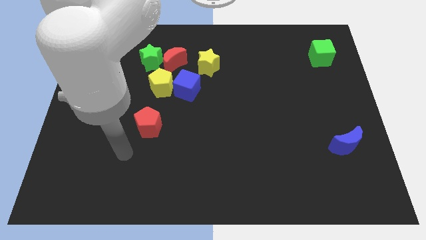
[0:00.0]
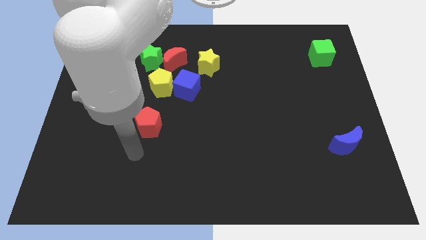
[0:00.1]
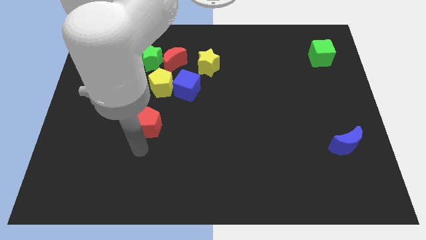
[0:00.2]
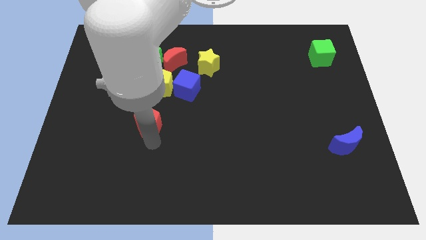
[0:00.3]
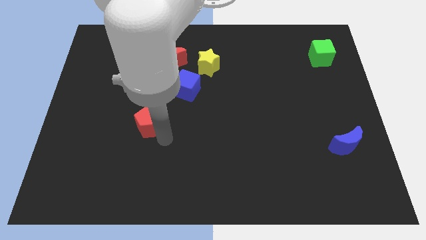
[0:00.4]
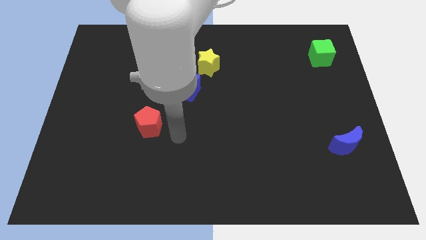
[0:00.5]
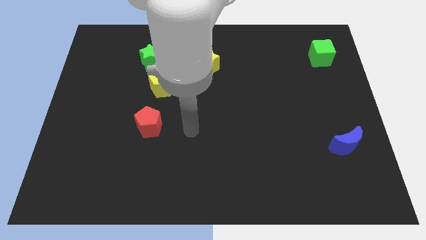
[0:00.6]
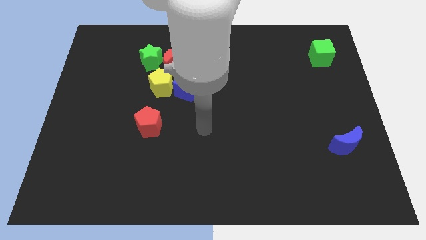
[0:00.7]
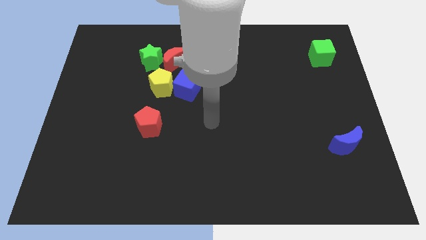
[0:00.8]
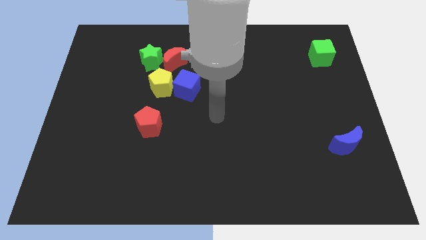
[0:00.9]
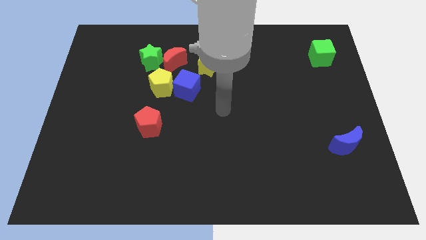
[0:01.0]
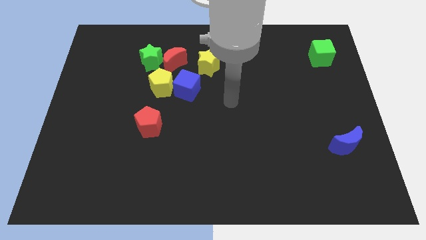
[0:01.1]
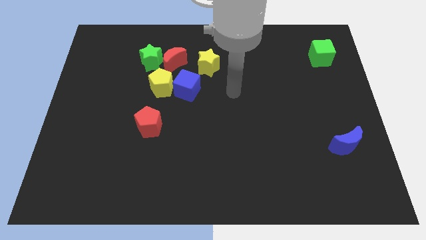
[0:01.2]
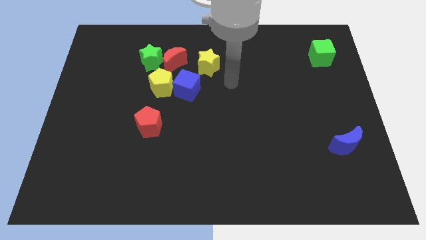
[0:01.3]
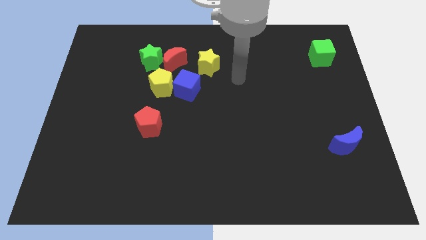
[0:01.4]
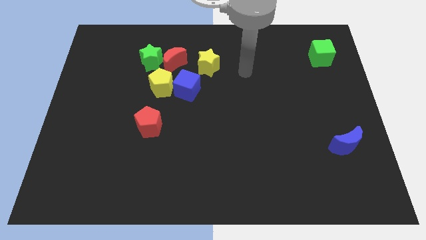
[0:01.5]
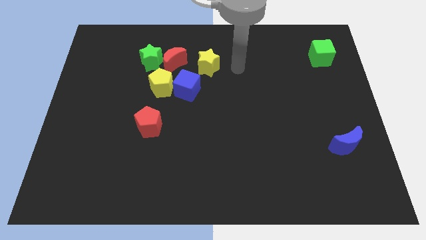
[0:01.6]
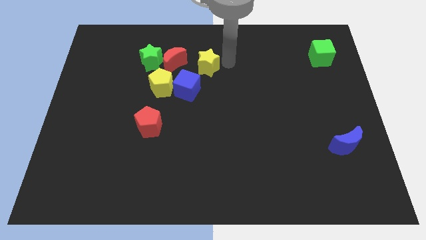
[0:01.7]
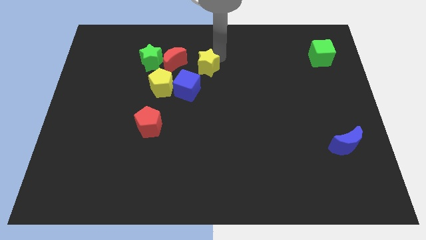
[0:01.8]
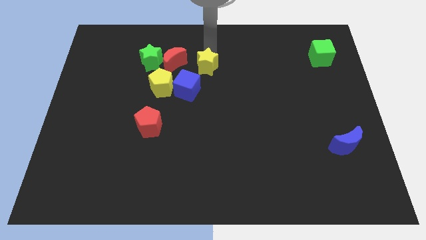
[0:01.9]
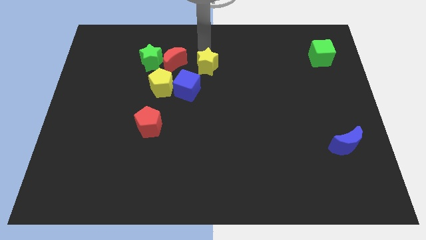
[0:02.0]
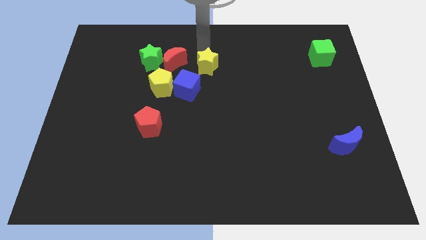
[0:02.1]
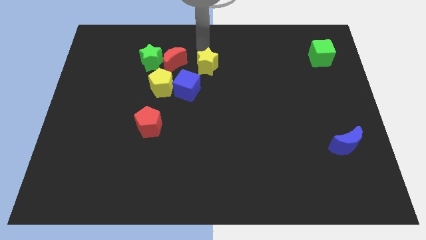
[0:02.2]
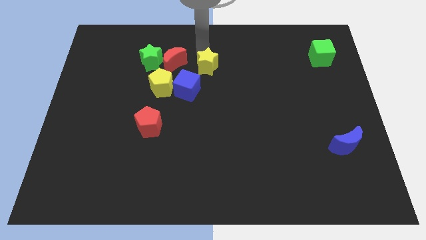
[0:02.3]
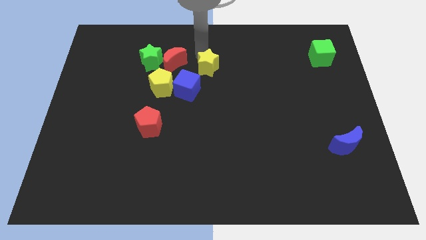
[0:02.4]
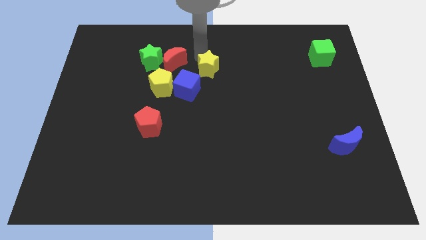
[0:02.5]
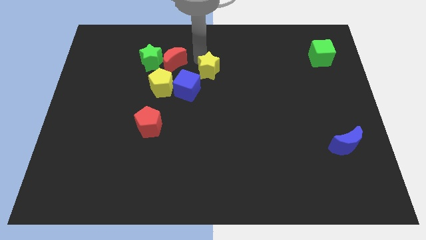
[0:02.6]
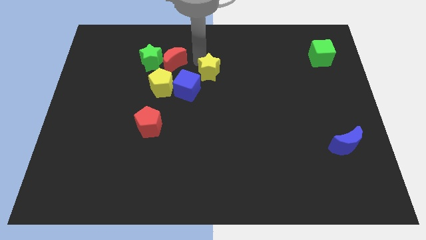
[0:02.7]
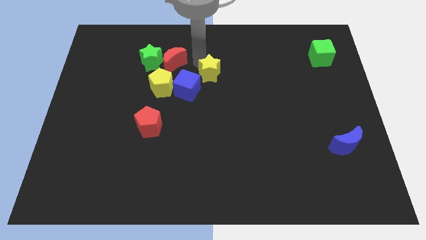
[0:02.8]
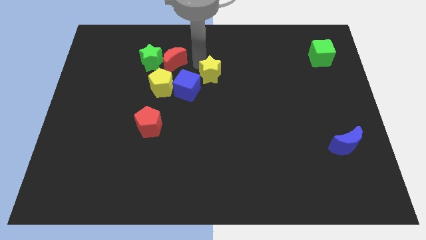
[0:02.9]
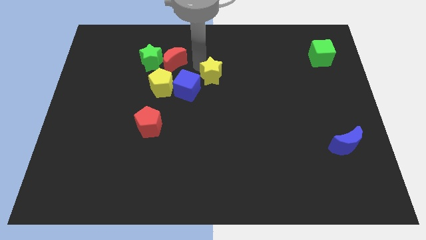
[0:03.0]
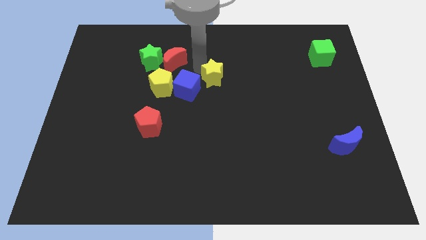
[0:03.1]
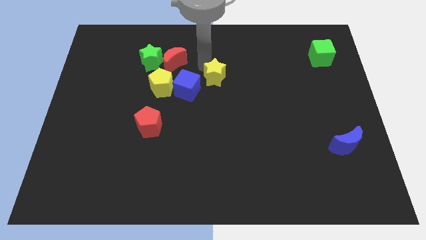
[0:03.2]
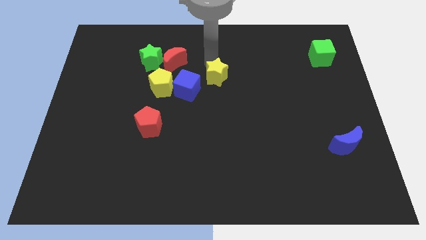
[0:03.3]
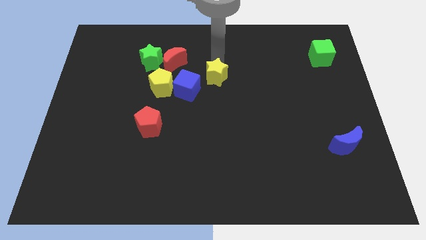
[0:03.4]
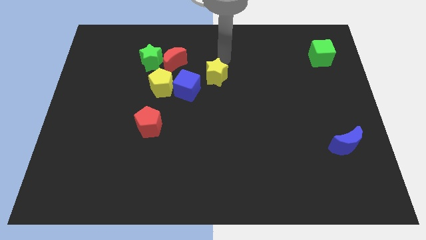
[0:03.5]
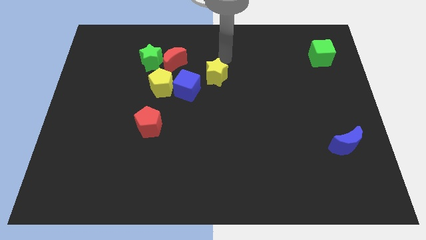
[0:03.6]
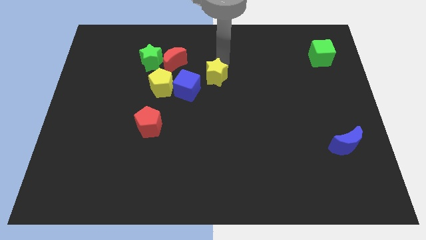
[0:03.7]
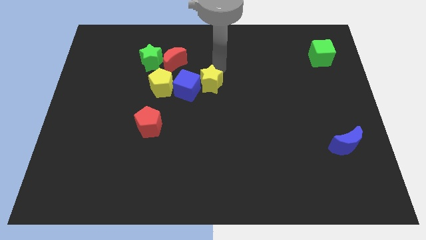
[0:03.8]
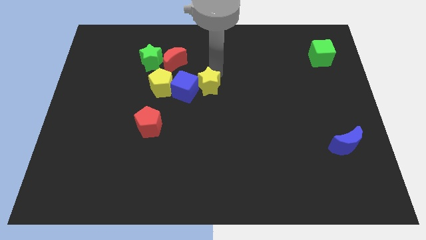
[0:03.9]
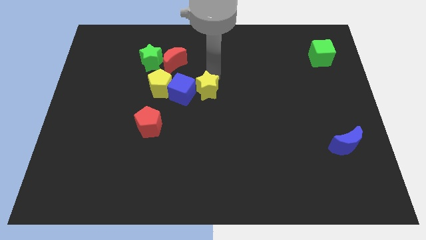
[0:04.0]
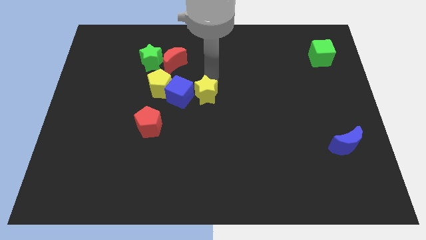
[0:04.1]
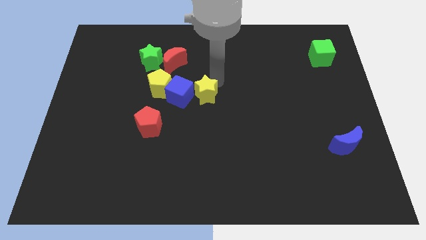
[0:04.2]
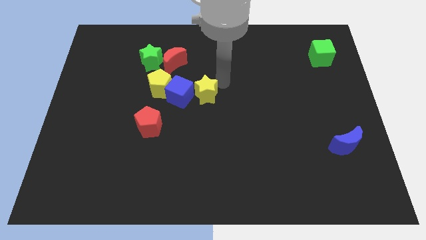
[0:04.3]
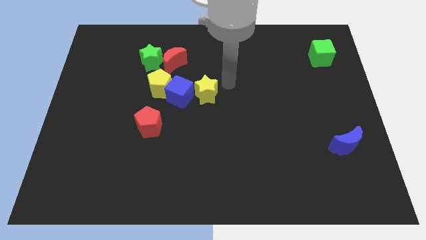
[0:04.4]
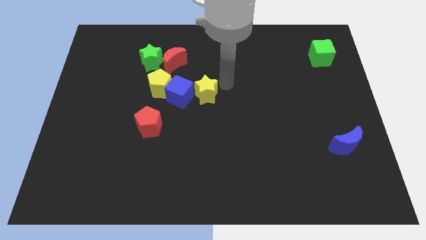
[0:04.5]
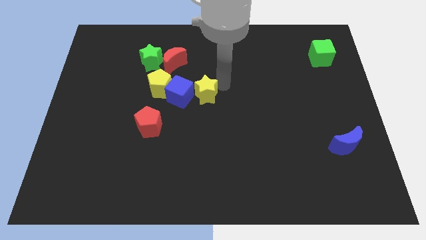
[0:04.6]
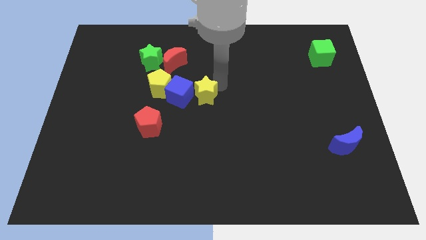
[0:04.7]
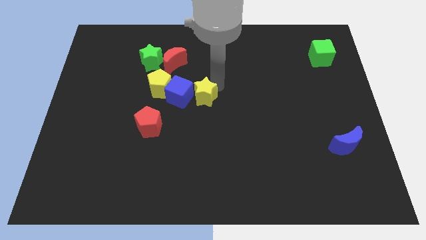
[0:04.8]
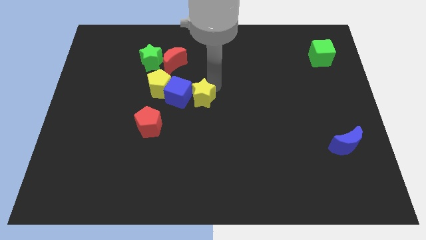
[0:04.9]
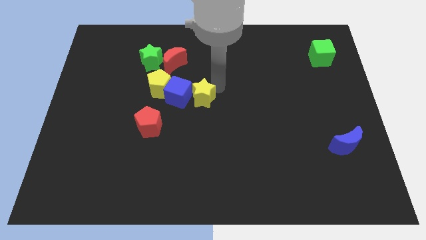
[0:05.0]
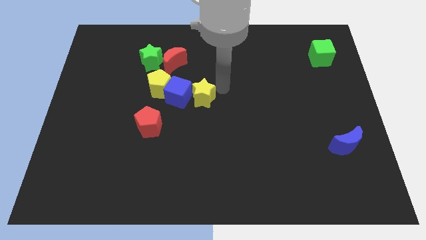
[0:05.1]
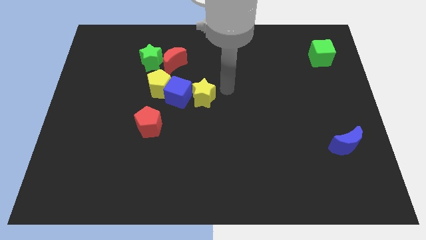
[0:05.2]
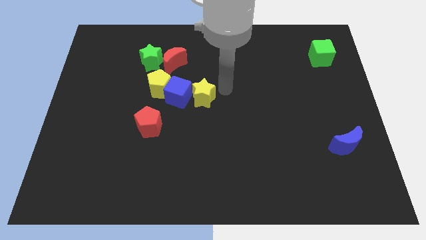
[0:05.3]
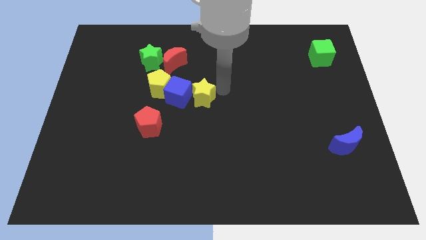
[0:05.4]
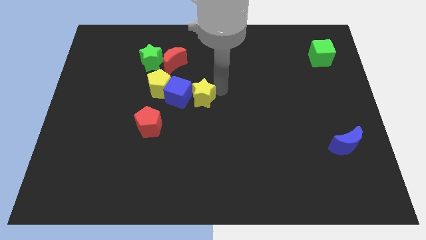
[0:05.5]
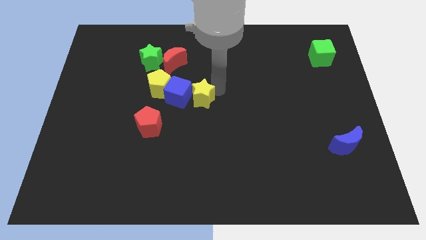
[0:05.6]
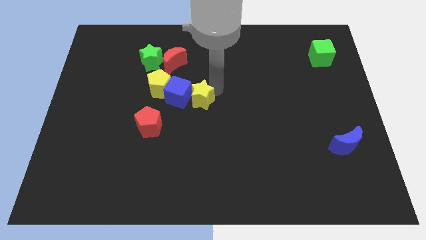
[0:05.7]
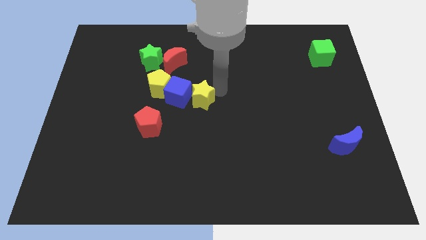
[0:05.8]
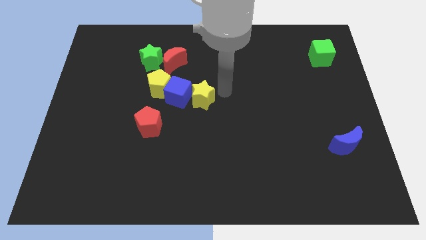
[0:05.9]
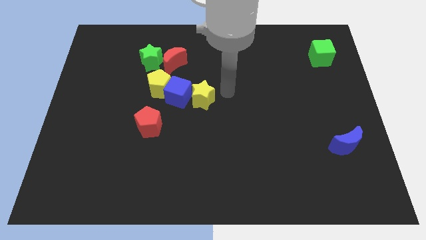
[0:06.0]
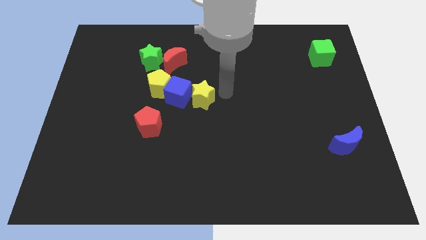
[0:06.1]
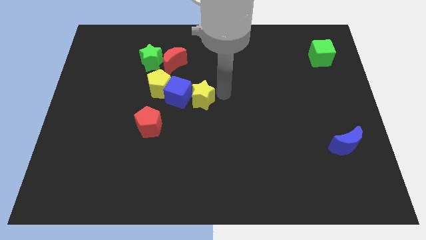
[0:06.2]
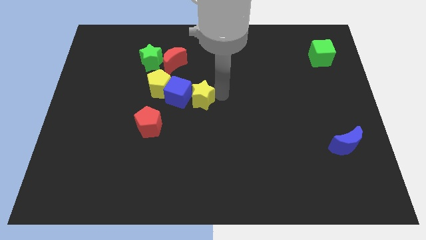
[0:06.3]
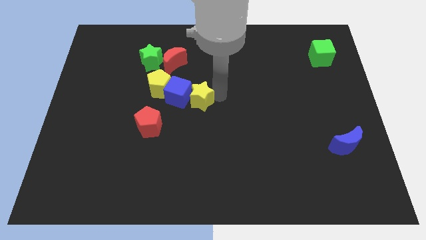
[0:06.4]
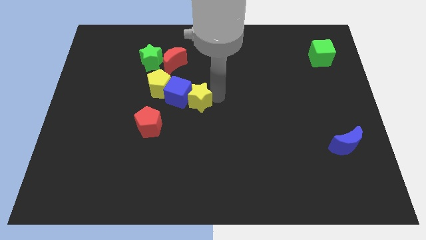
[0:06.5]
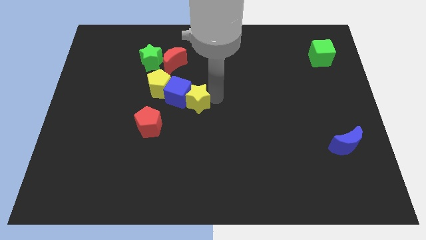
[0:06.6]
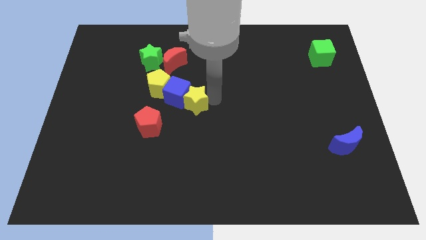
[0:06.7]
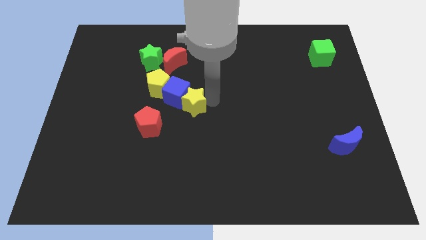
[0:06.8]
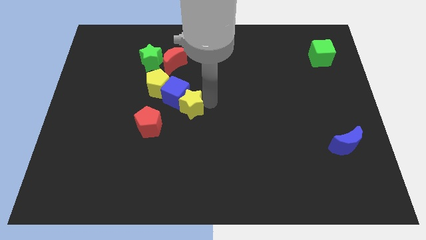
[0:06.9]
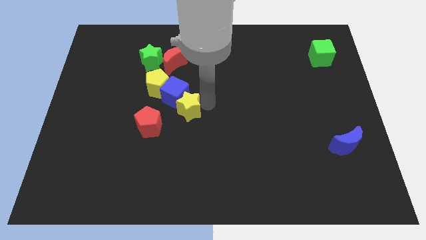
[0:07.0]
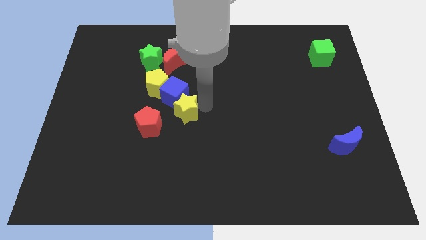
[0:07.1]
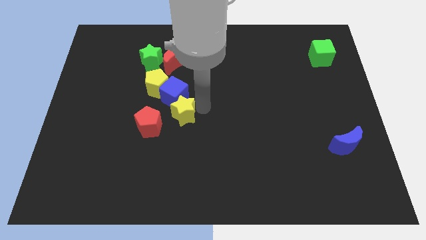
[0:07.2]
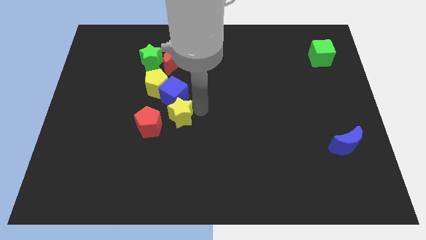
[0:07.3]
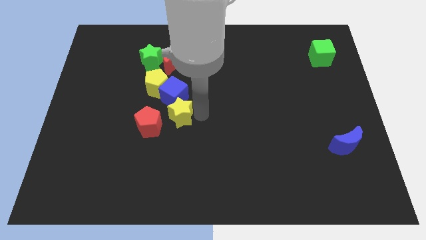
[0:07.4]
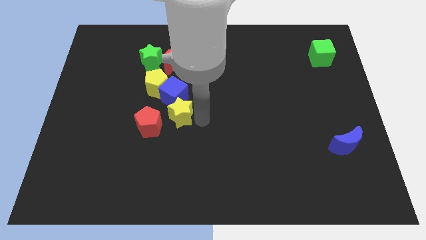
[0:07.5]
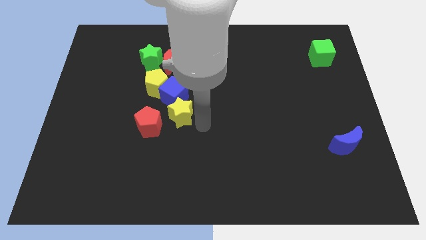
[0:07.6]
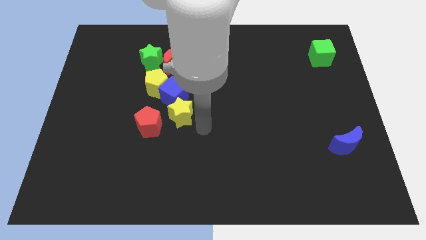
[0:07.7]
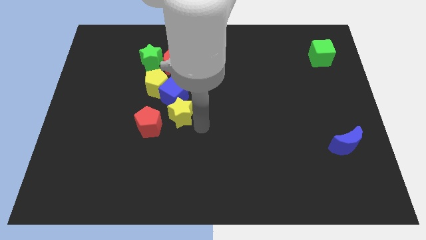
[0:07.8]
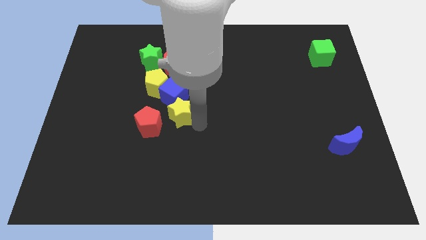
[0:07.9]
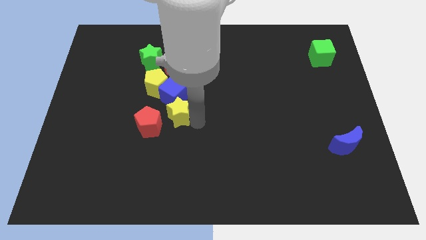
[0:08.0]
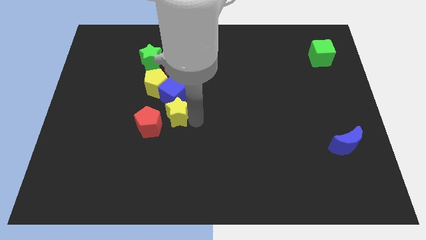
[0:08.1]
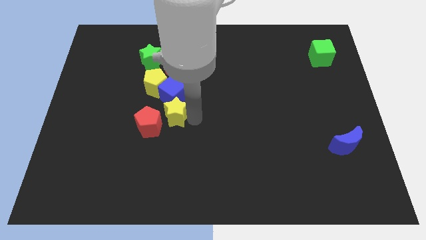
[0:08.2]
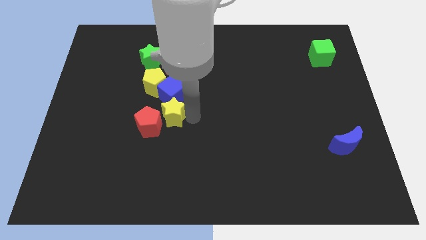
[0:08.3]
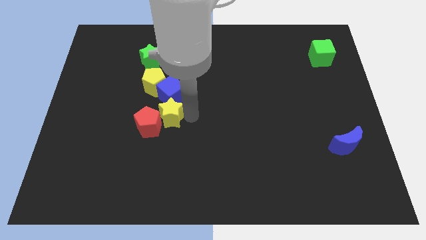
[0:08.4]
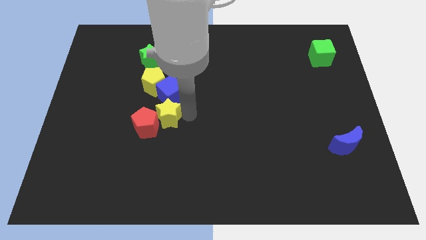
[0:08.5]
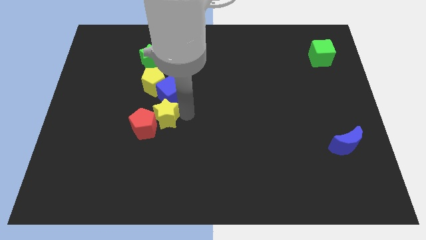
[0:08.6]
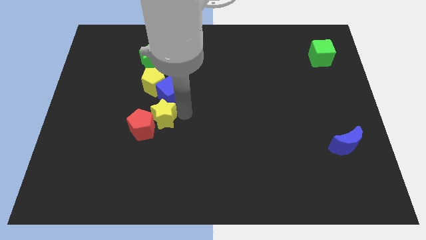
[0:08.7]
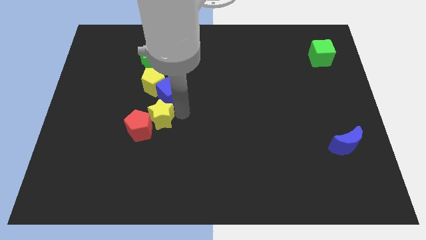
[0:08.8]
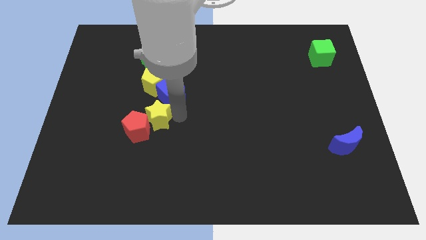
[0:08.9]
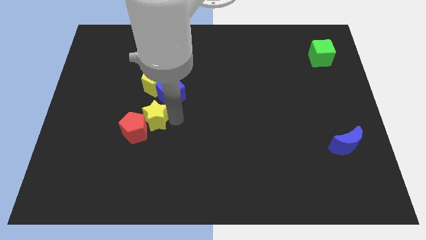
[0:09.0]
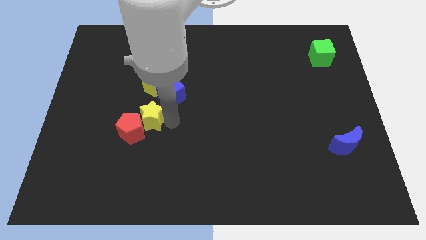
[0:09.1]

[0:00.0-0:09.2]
move the yellow star downwards and then to the left
